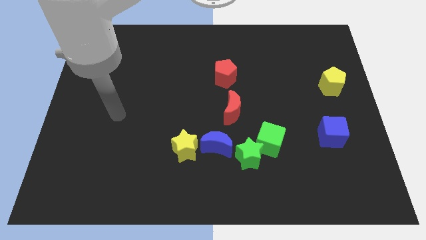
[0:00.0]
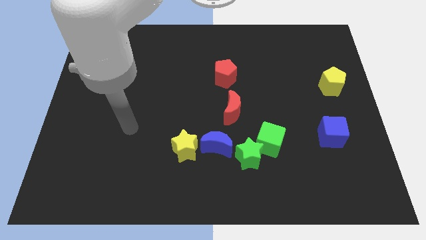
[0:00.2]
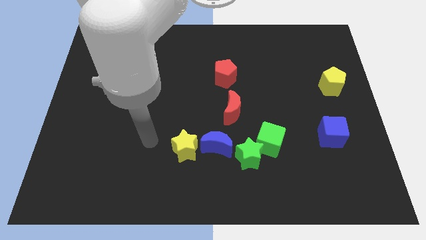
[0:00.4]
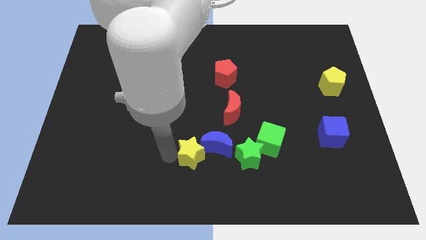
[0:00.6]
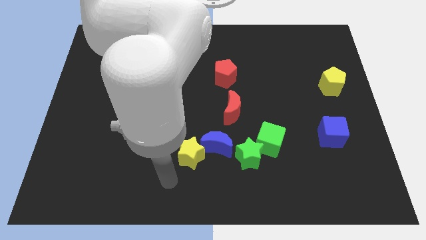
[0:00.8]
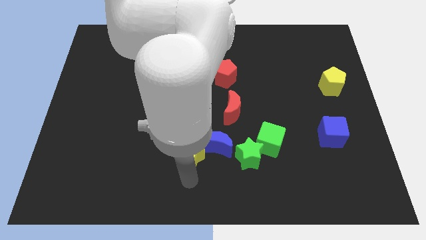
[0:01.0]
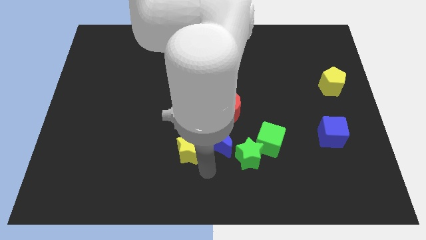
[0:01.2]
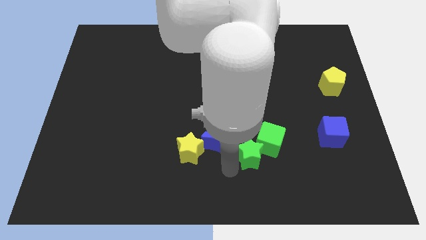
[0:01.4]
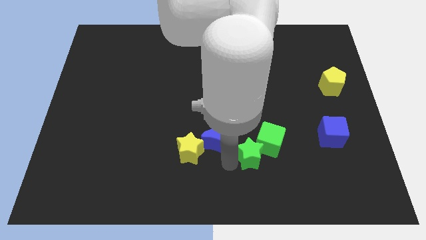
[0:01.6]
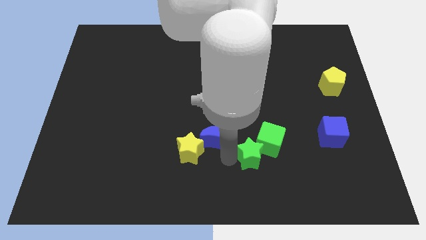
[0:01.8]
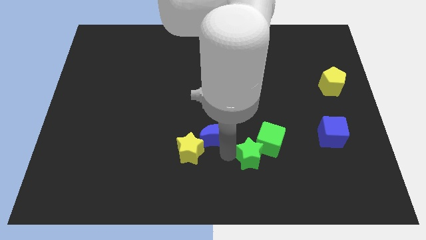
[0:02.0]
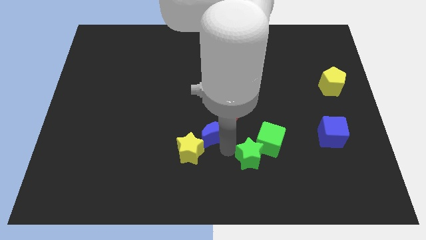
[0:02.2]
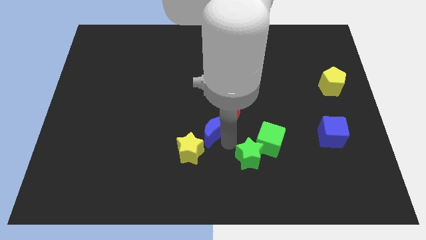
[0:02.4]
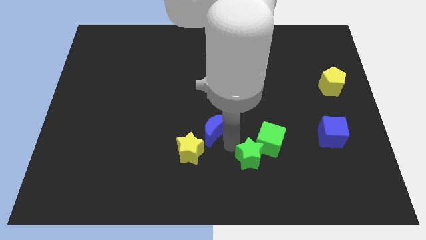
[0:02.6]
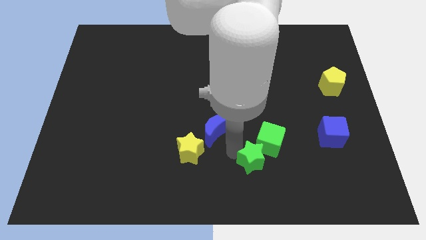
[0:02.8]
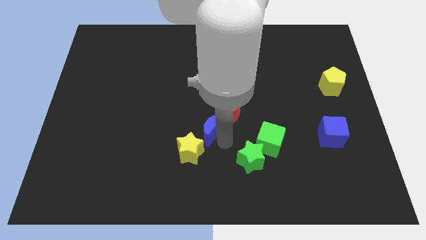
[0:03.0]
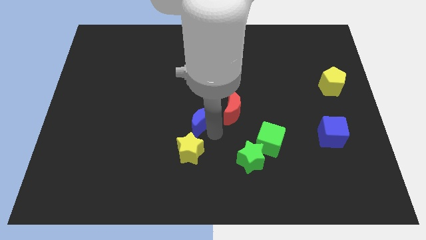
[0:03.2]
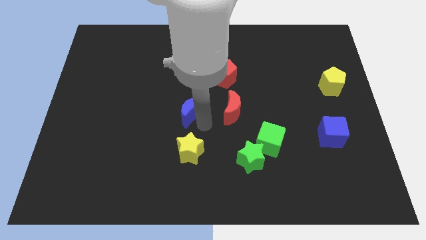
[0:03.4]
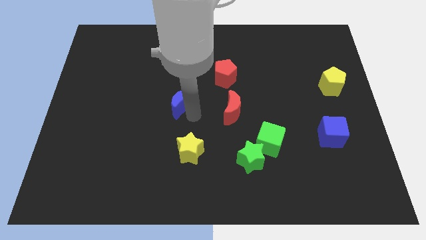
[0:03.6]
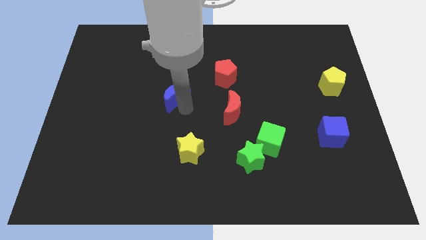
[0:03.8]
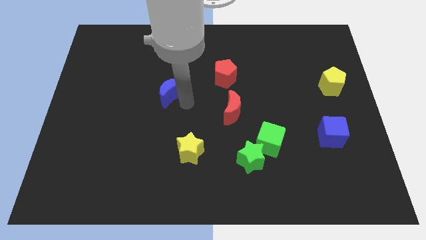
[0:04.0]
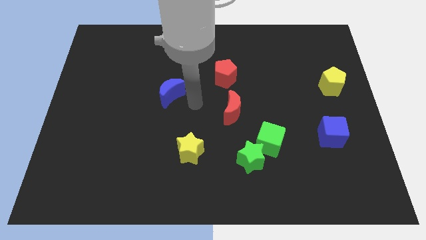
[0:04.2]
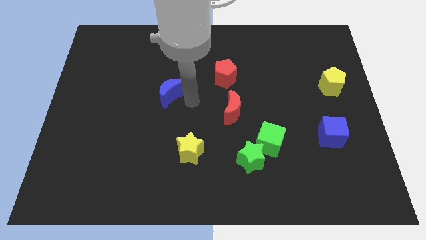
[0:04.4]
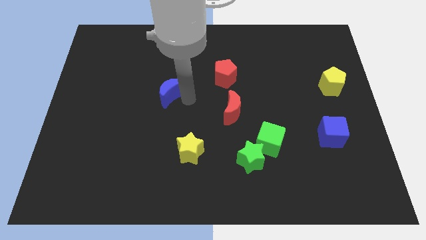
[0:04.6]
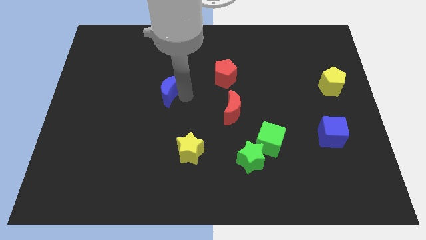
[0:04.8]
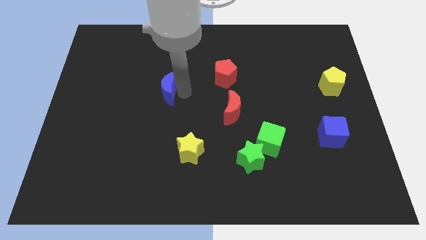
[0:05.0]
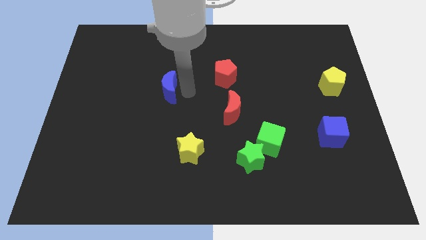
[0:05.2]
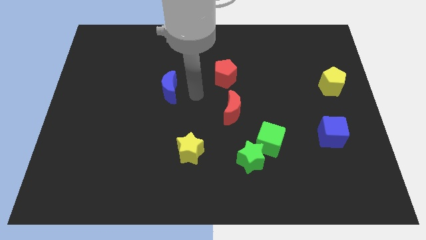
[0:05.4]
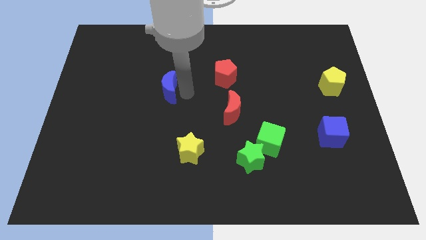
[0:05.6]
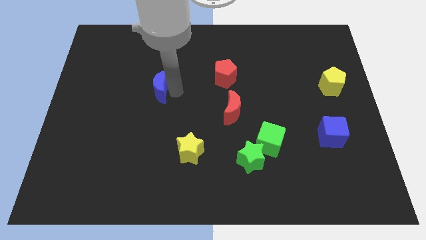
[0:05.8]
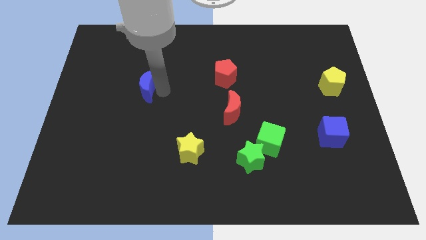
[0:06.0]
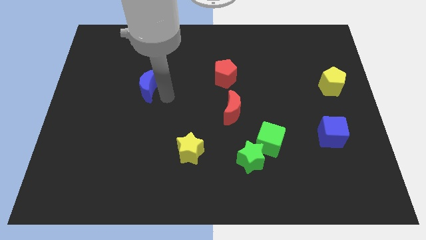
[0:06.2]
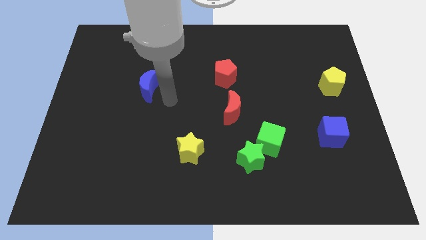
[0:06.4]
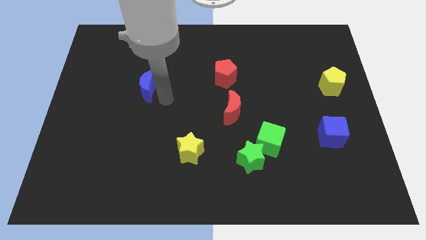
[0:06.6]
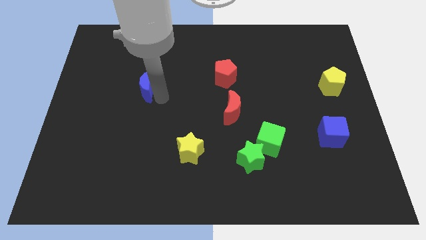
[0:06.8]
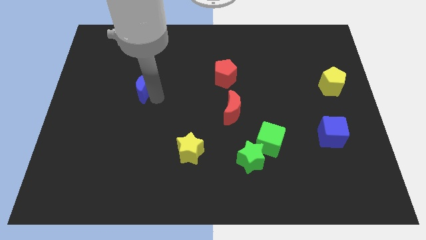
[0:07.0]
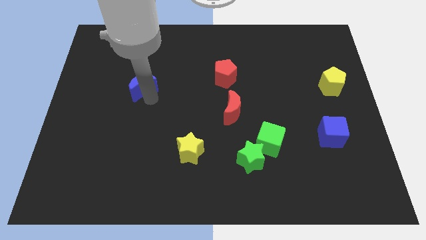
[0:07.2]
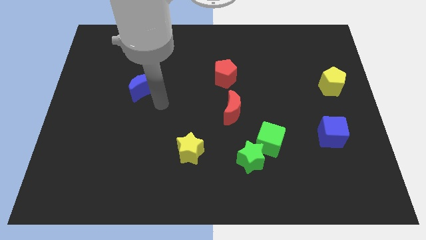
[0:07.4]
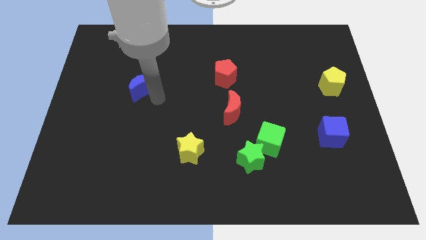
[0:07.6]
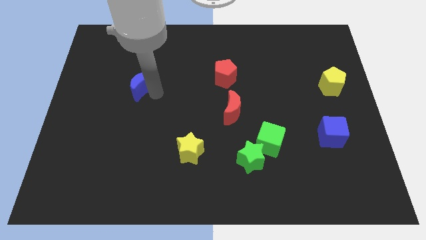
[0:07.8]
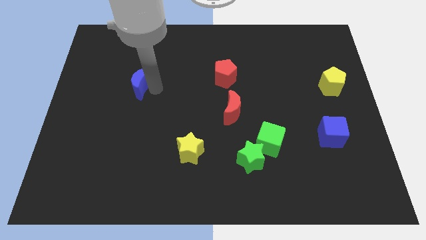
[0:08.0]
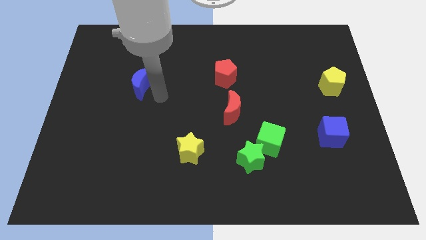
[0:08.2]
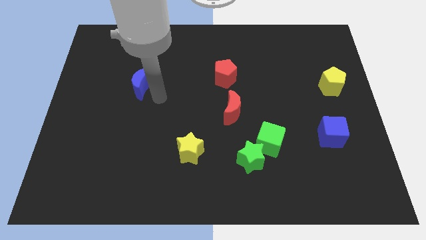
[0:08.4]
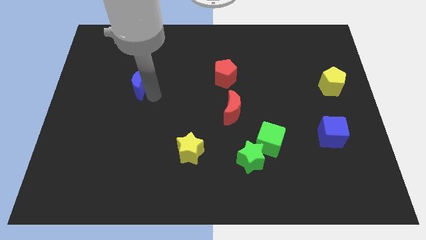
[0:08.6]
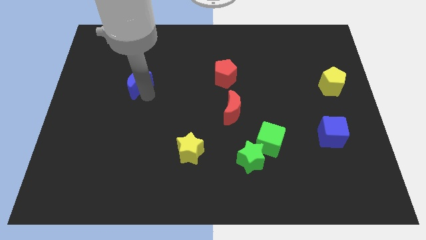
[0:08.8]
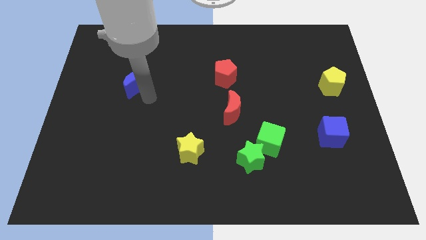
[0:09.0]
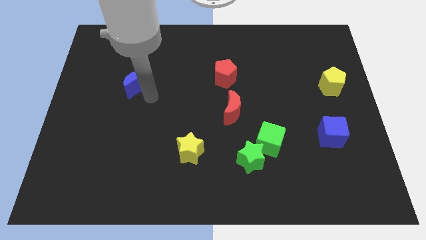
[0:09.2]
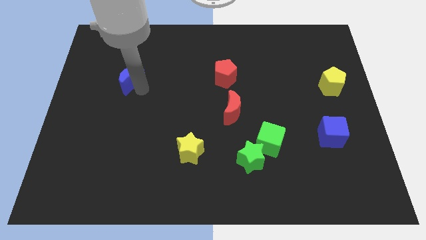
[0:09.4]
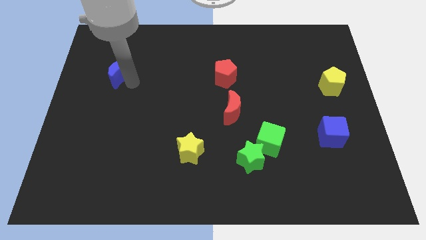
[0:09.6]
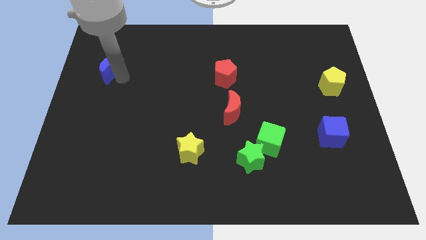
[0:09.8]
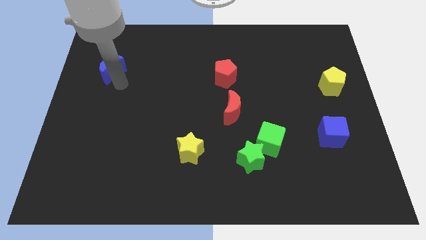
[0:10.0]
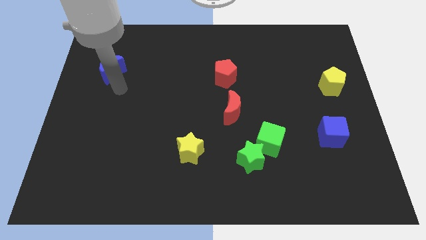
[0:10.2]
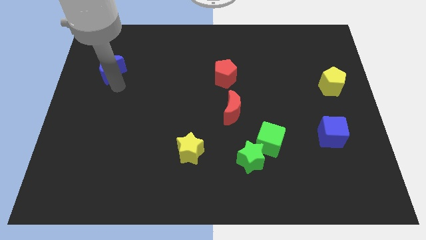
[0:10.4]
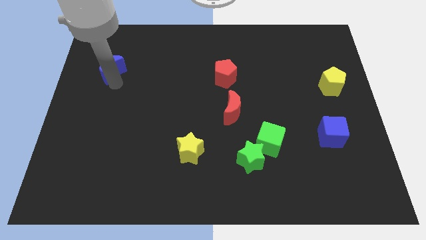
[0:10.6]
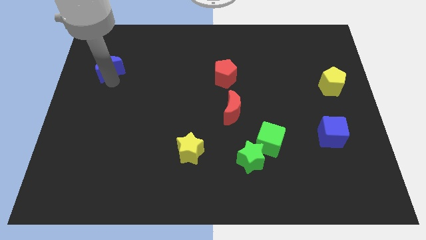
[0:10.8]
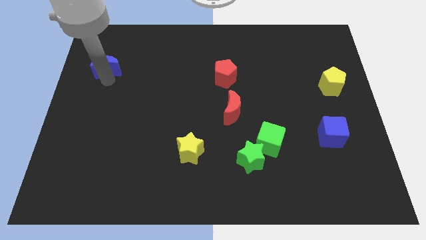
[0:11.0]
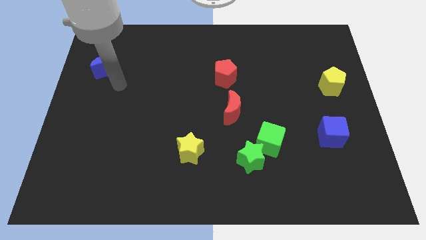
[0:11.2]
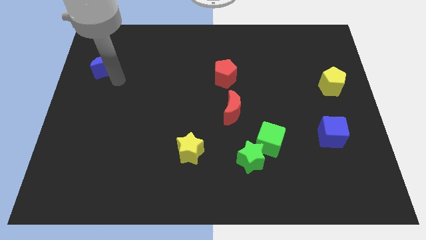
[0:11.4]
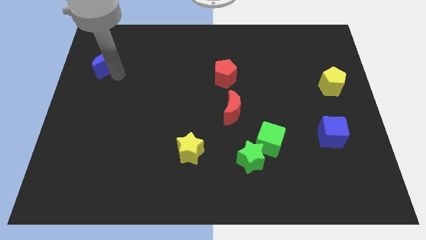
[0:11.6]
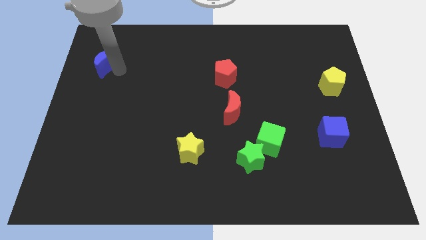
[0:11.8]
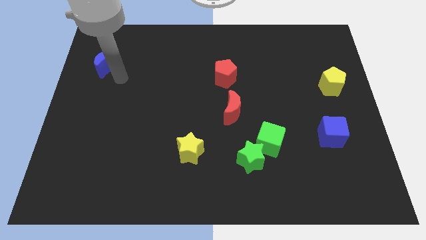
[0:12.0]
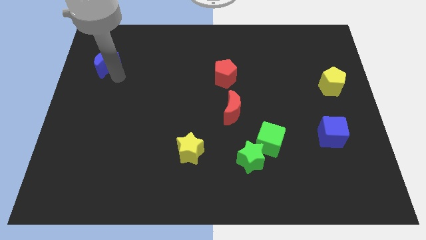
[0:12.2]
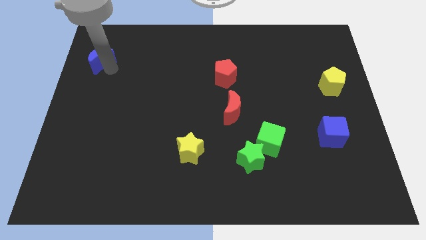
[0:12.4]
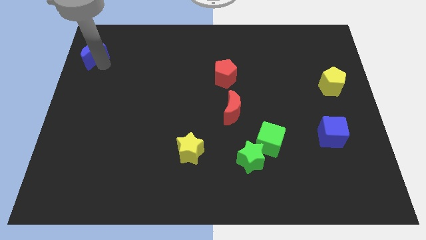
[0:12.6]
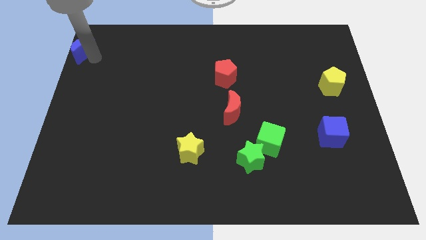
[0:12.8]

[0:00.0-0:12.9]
slide the blue moon to the top left corner
